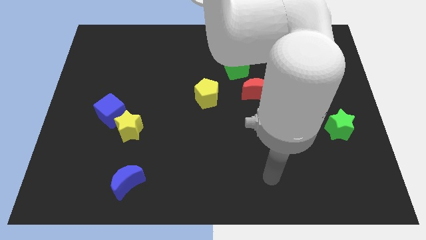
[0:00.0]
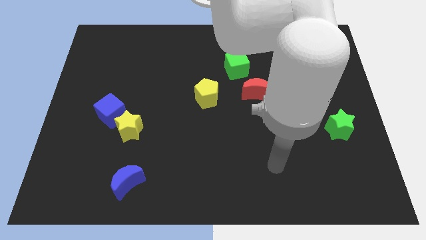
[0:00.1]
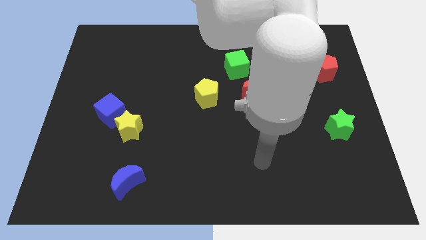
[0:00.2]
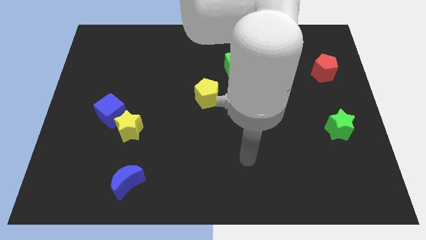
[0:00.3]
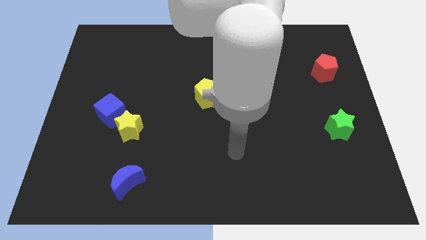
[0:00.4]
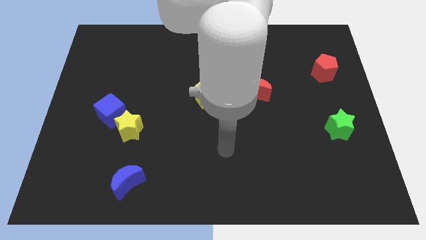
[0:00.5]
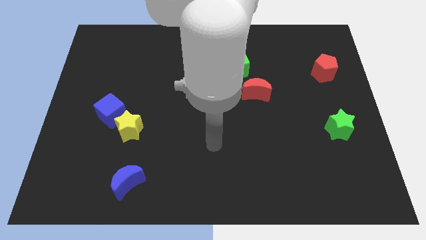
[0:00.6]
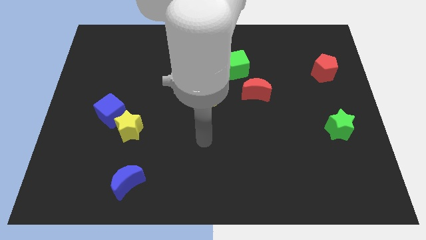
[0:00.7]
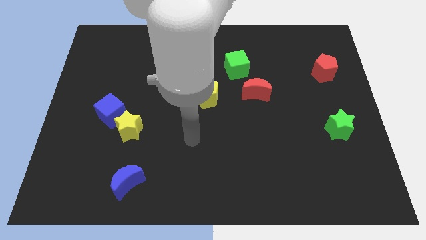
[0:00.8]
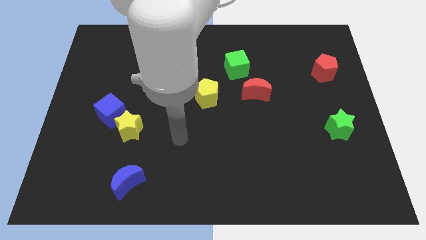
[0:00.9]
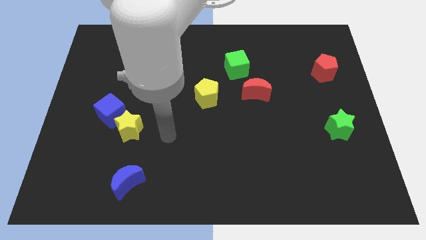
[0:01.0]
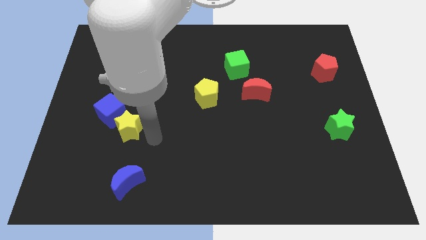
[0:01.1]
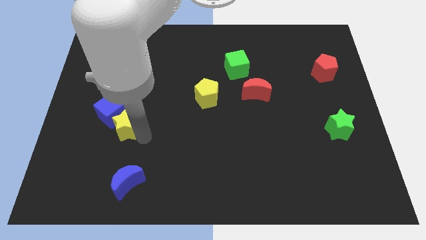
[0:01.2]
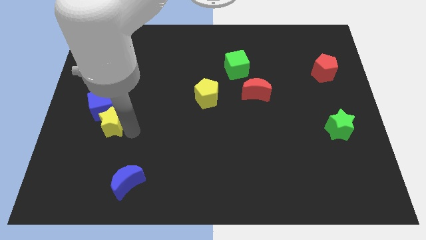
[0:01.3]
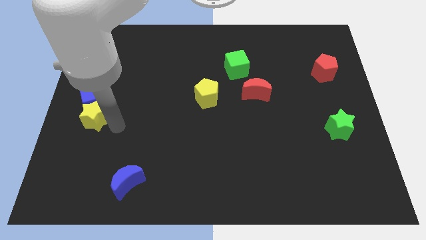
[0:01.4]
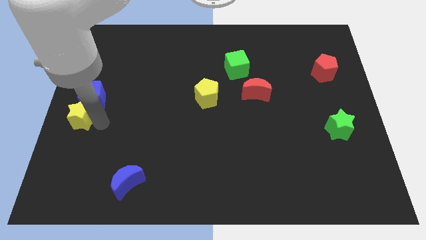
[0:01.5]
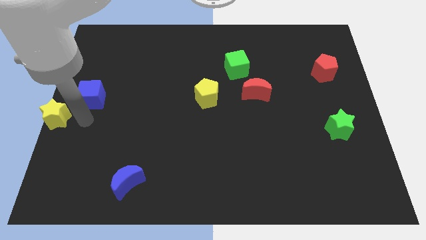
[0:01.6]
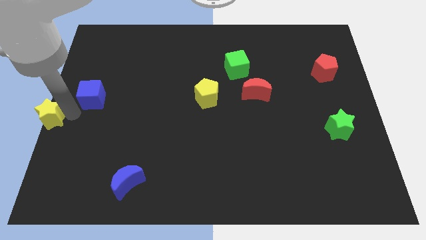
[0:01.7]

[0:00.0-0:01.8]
move the blue cube away from the yellow star

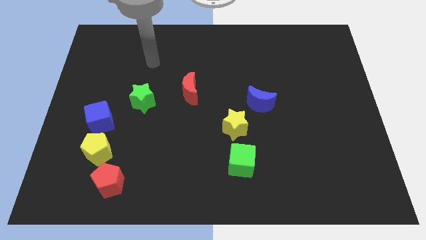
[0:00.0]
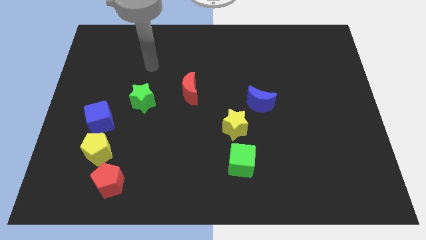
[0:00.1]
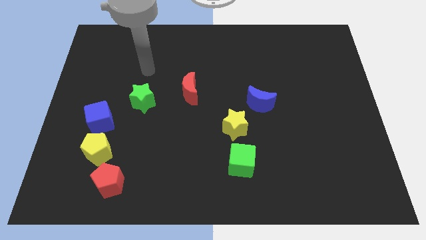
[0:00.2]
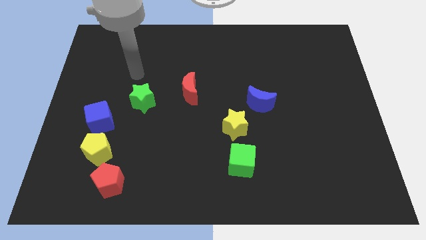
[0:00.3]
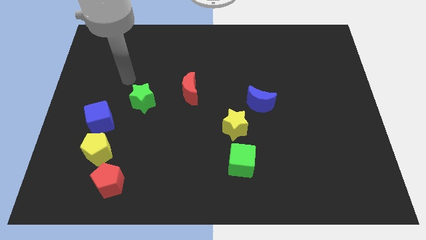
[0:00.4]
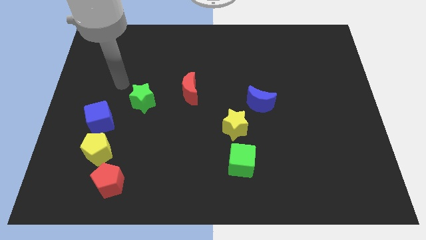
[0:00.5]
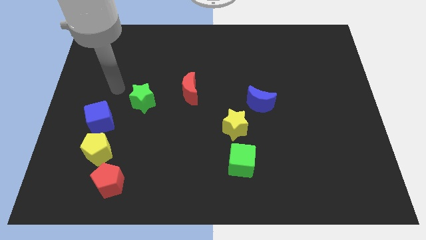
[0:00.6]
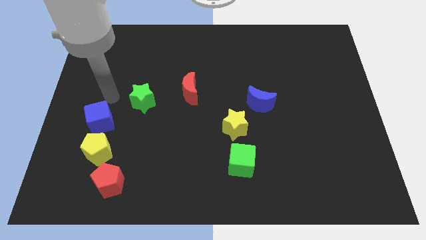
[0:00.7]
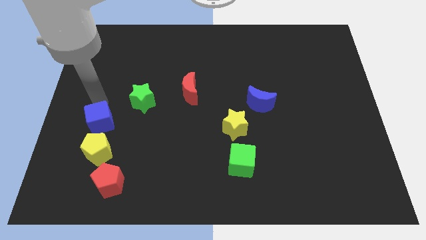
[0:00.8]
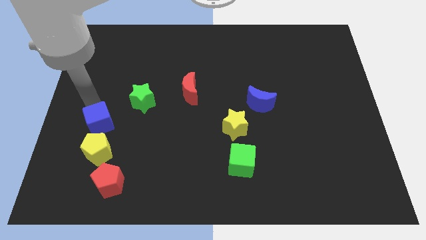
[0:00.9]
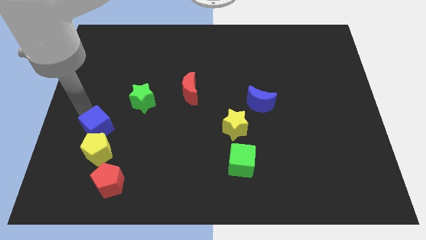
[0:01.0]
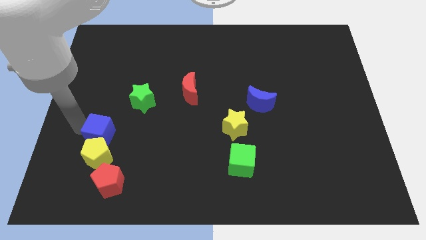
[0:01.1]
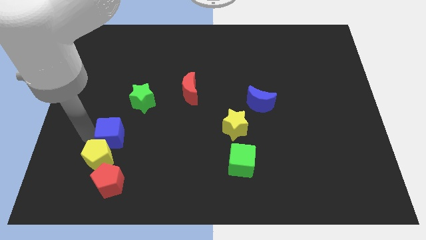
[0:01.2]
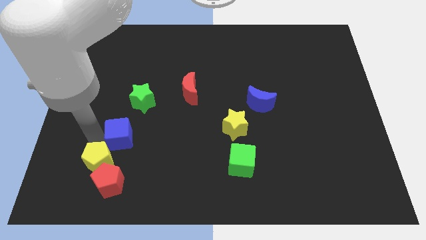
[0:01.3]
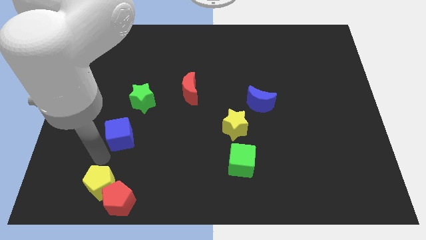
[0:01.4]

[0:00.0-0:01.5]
move the blue cube away from the yellow pentagon

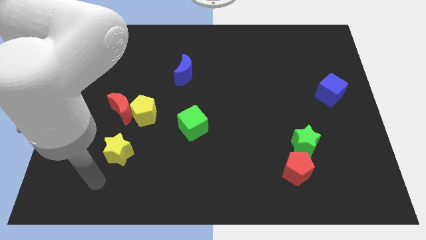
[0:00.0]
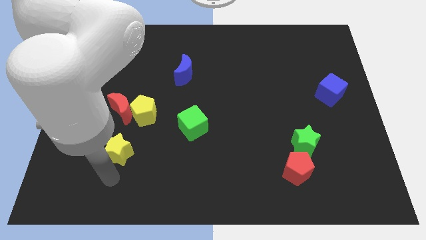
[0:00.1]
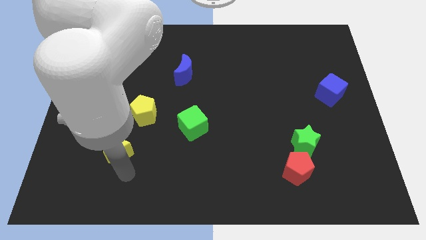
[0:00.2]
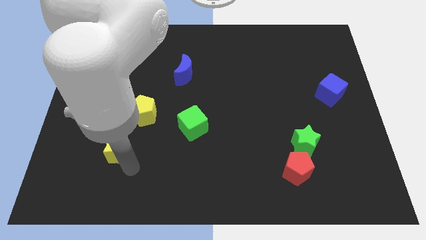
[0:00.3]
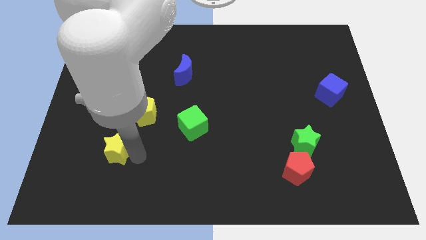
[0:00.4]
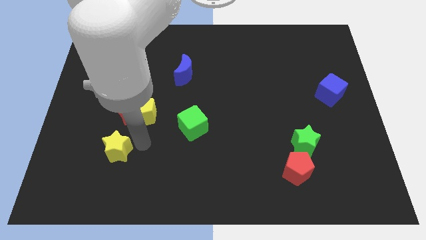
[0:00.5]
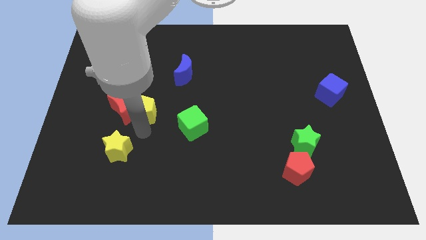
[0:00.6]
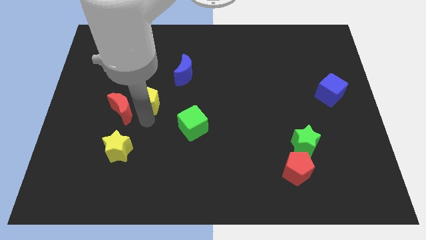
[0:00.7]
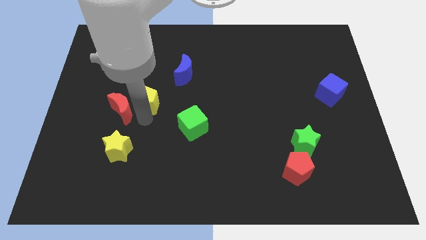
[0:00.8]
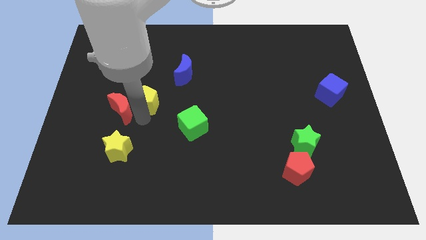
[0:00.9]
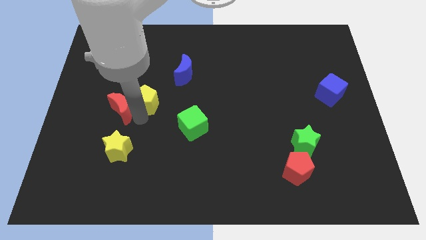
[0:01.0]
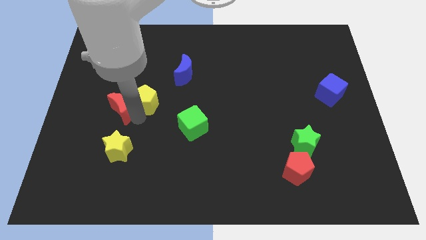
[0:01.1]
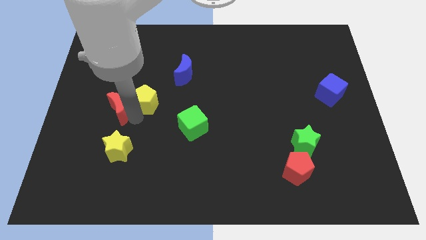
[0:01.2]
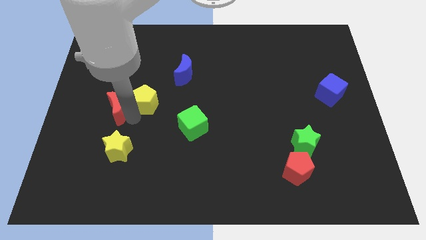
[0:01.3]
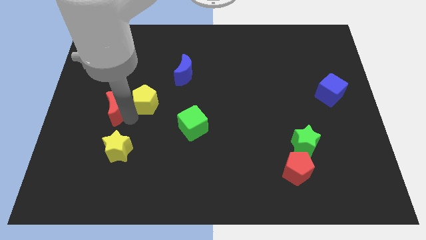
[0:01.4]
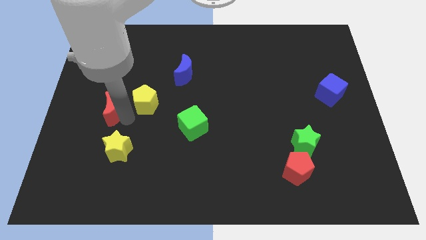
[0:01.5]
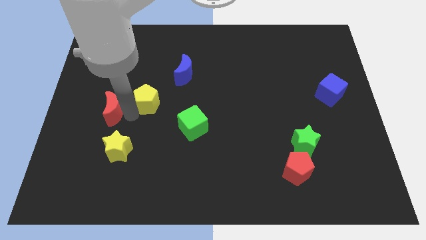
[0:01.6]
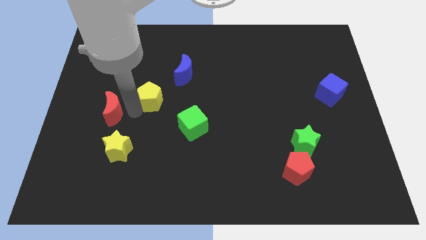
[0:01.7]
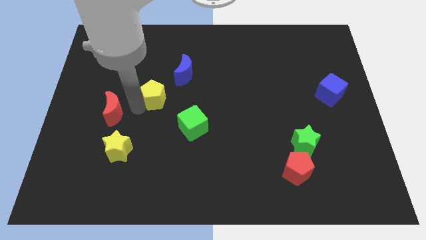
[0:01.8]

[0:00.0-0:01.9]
move the red moon away from the yellow pentagon

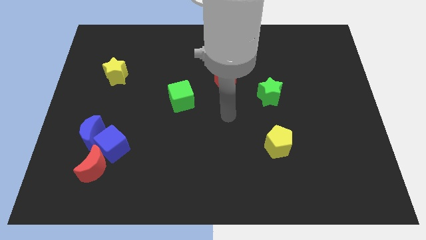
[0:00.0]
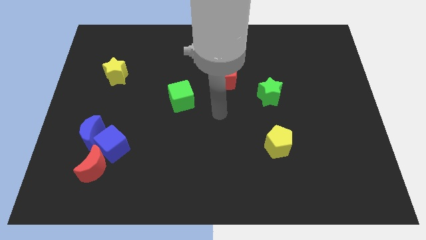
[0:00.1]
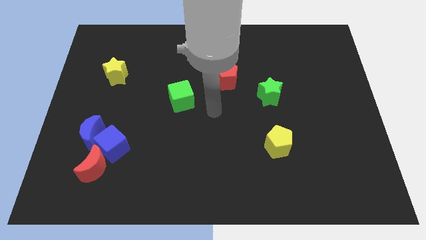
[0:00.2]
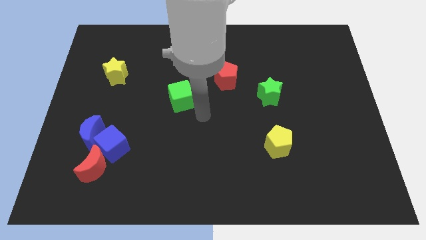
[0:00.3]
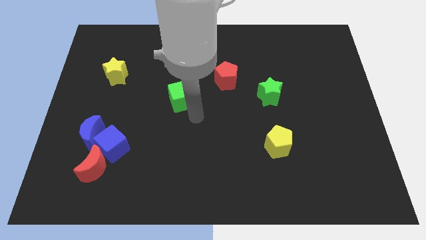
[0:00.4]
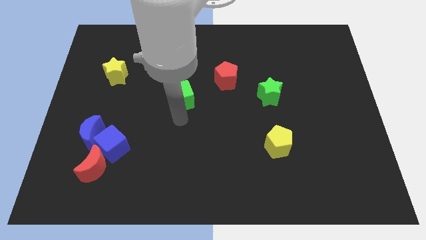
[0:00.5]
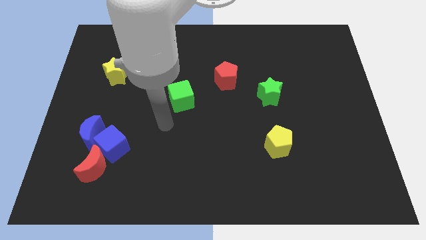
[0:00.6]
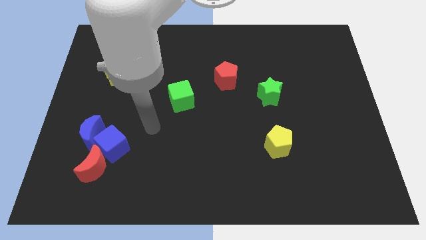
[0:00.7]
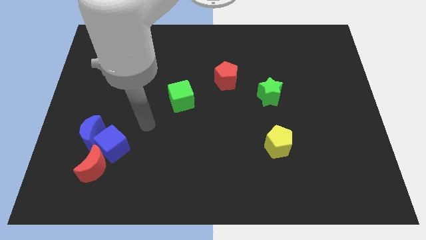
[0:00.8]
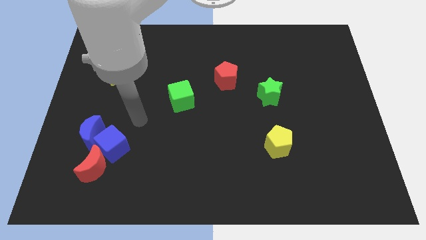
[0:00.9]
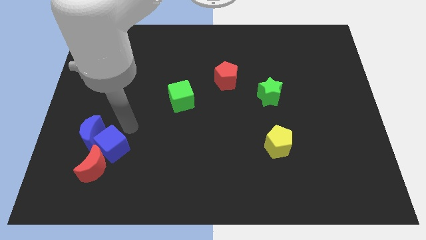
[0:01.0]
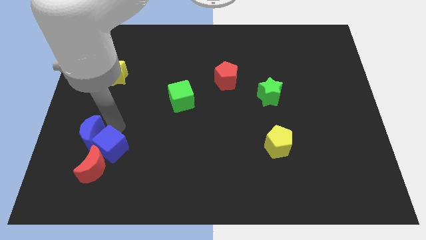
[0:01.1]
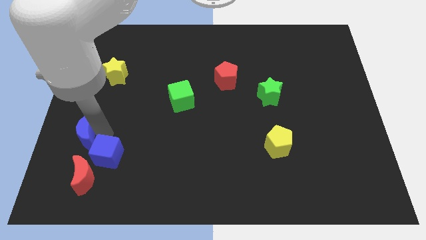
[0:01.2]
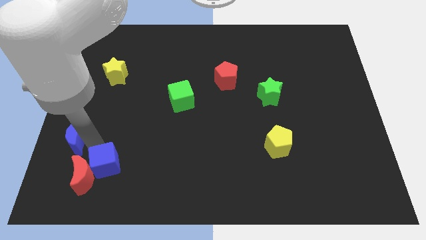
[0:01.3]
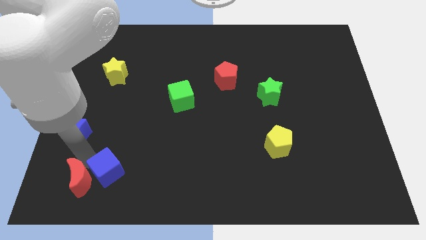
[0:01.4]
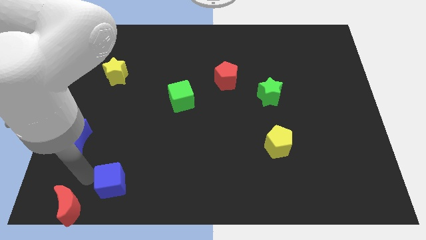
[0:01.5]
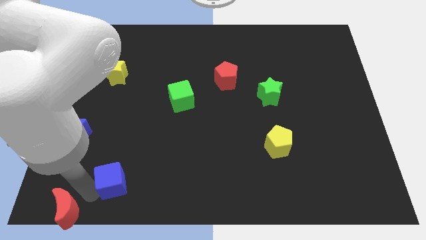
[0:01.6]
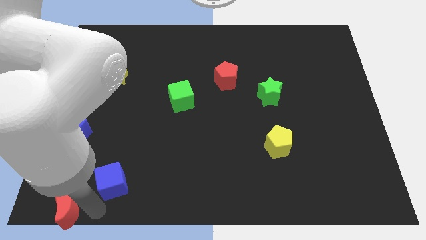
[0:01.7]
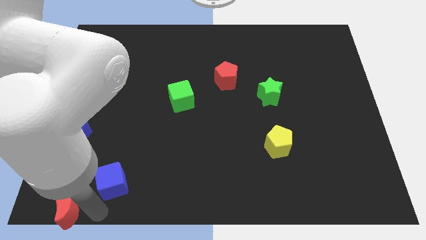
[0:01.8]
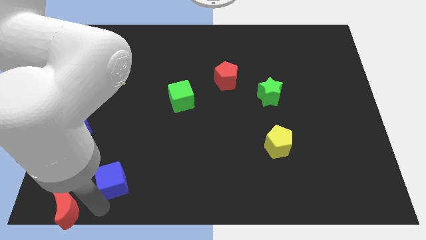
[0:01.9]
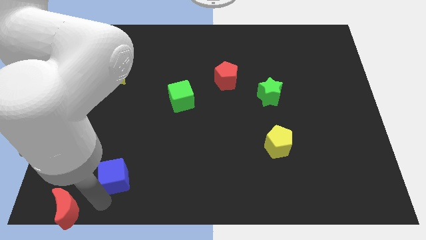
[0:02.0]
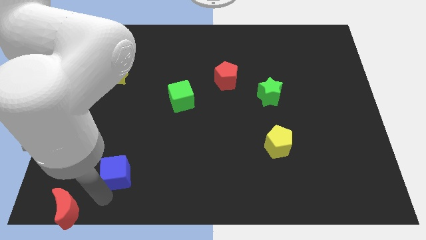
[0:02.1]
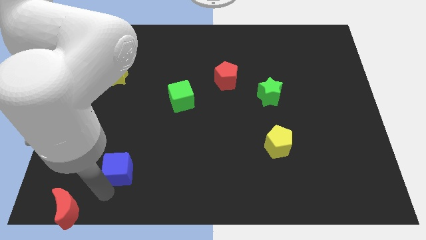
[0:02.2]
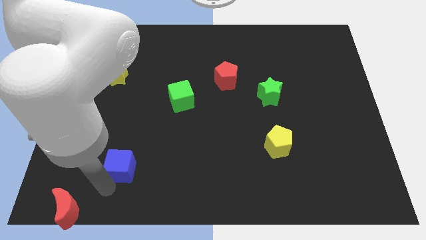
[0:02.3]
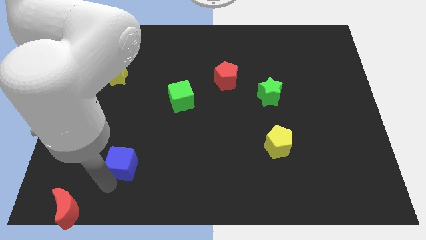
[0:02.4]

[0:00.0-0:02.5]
pull the blue cube apart from the blue moon and red moon

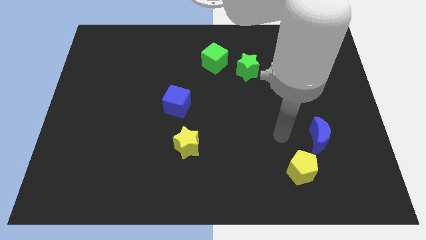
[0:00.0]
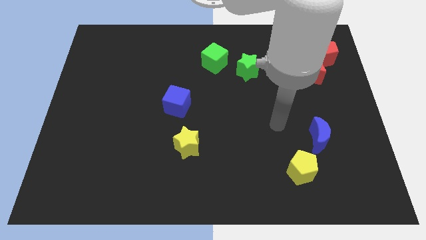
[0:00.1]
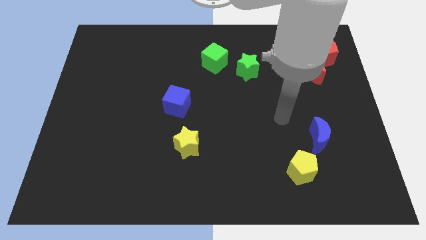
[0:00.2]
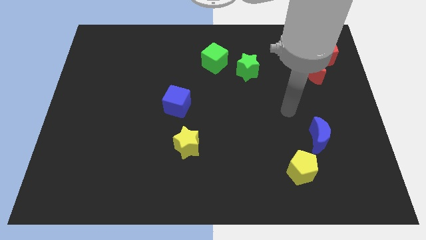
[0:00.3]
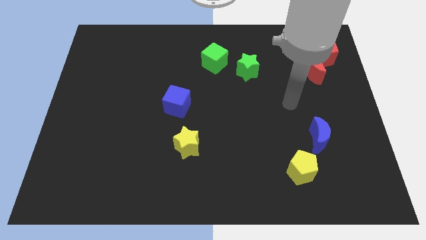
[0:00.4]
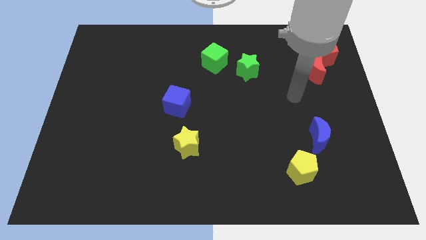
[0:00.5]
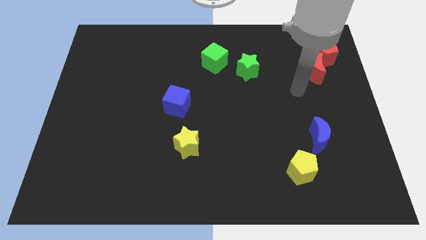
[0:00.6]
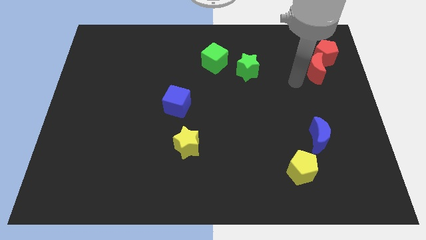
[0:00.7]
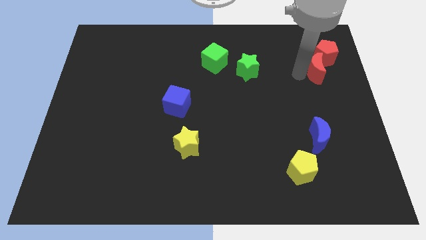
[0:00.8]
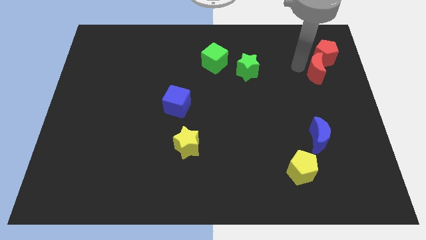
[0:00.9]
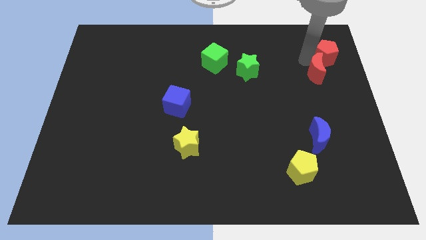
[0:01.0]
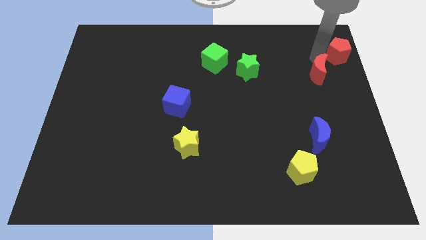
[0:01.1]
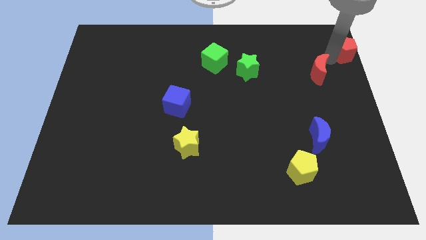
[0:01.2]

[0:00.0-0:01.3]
pull the red moon apart from the red pentagon

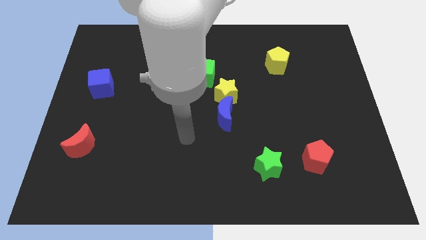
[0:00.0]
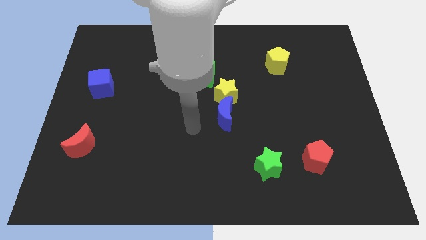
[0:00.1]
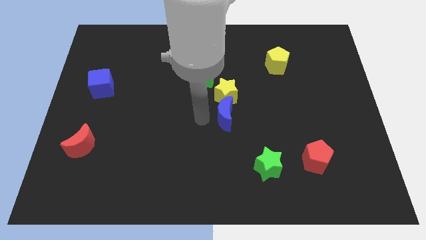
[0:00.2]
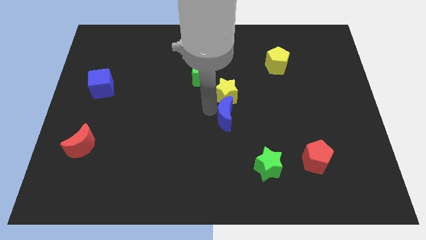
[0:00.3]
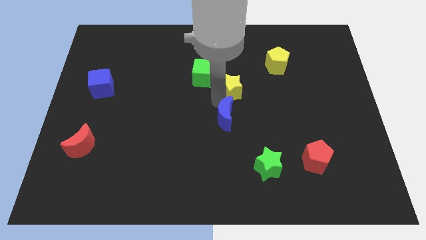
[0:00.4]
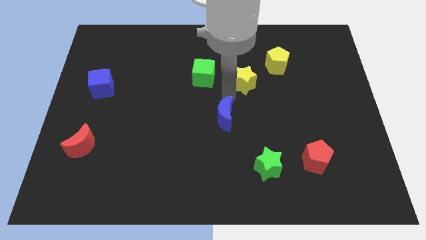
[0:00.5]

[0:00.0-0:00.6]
separate the blue moon from the yellow star
